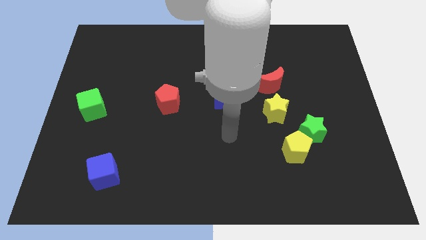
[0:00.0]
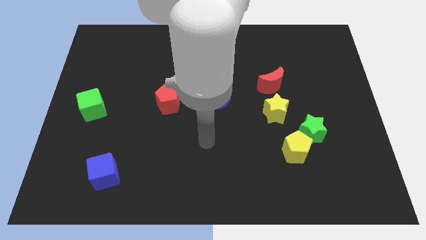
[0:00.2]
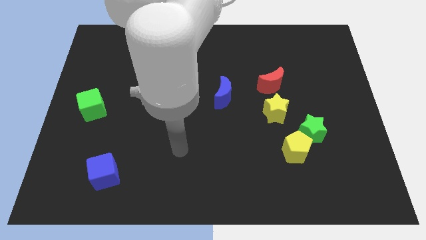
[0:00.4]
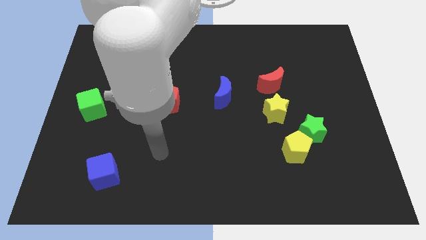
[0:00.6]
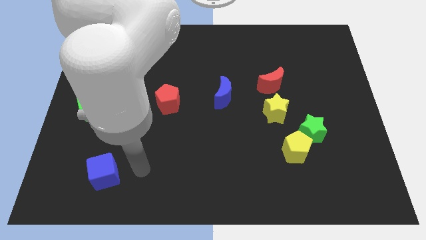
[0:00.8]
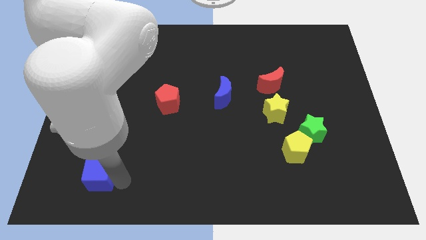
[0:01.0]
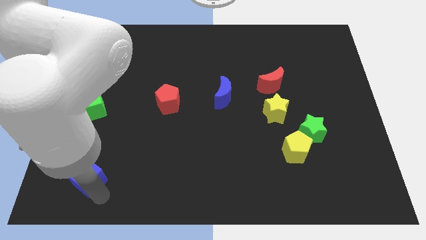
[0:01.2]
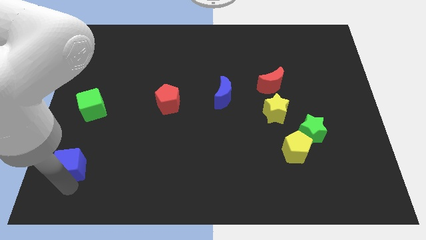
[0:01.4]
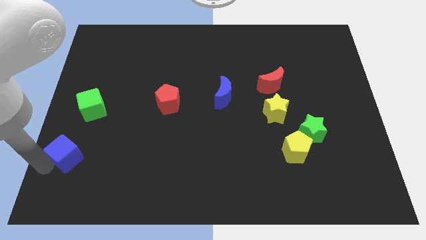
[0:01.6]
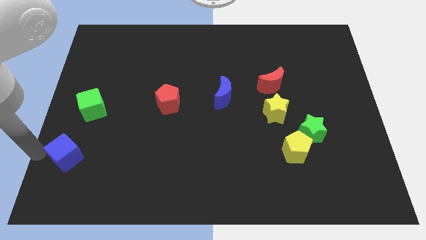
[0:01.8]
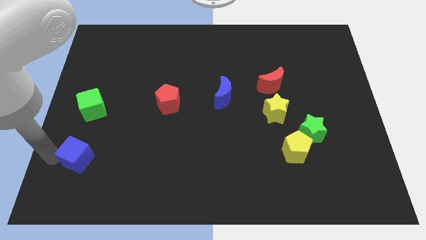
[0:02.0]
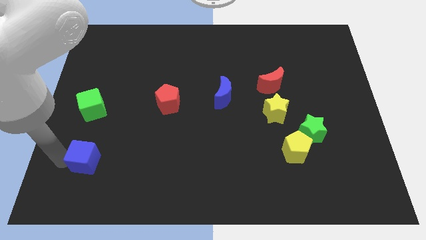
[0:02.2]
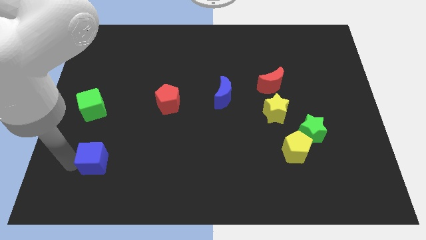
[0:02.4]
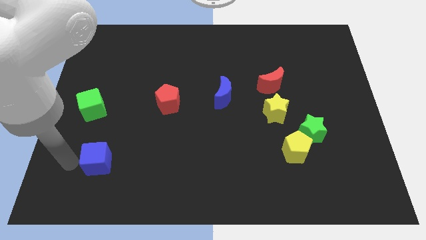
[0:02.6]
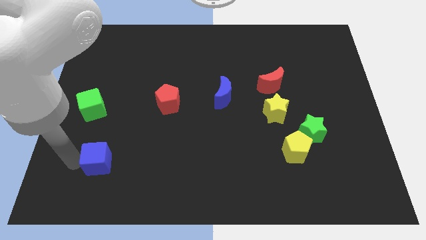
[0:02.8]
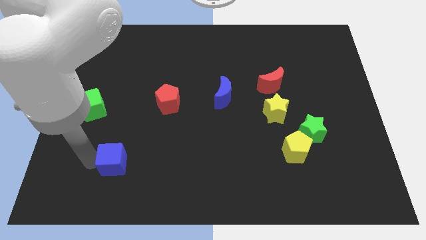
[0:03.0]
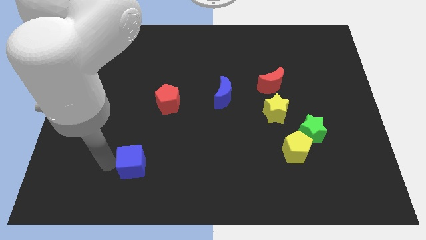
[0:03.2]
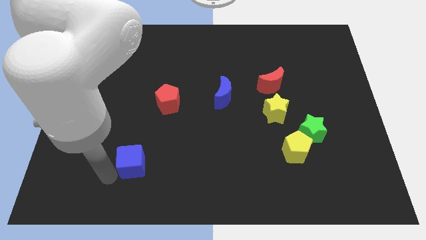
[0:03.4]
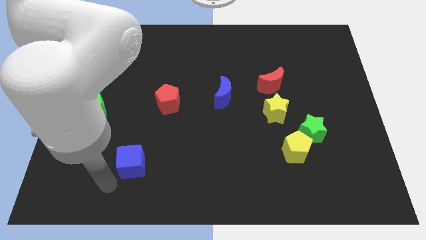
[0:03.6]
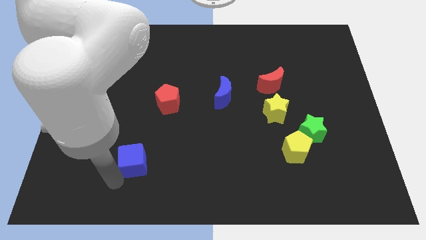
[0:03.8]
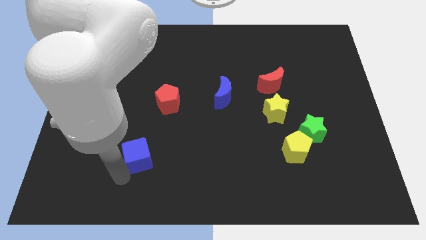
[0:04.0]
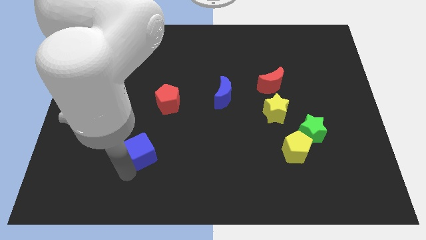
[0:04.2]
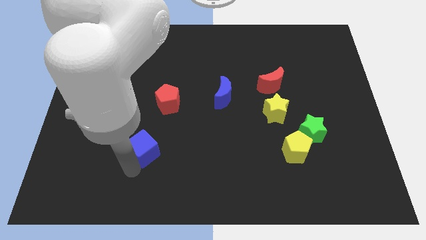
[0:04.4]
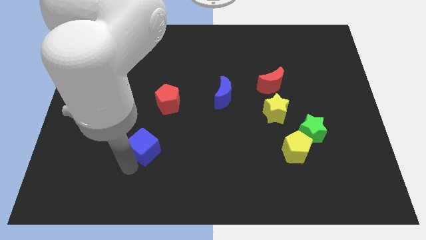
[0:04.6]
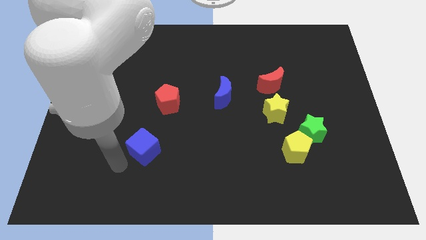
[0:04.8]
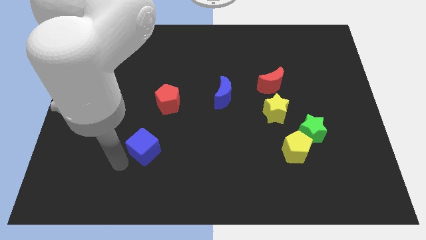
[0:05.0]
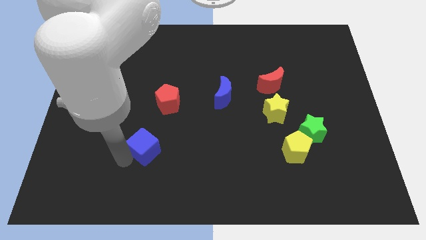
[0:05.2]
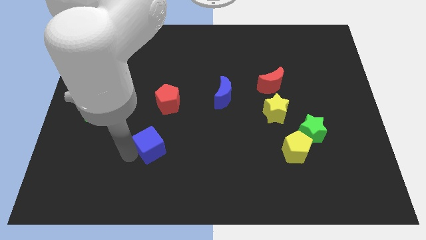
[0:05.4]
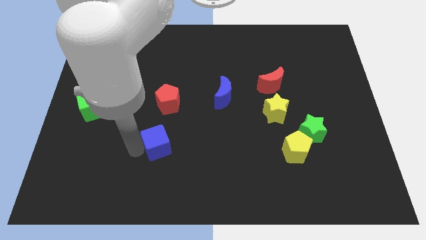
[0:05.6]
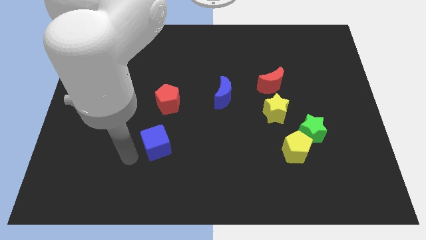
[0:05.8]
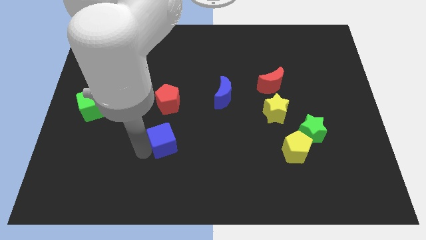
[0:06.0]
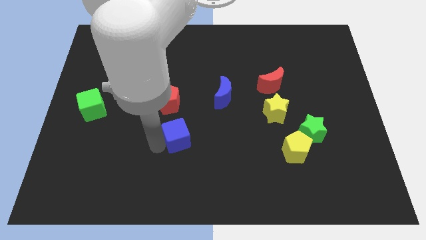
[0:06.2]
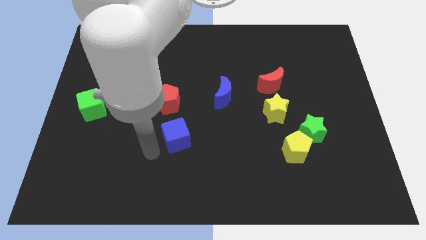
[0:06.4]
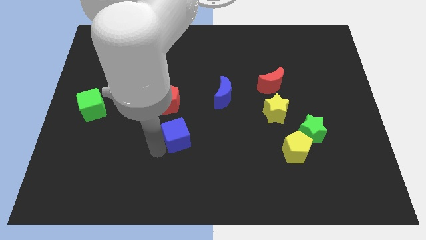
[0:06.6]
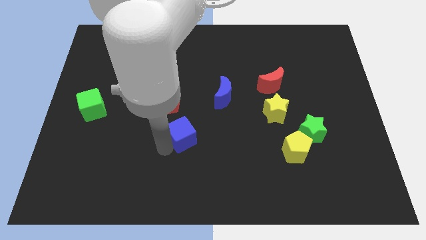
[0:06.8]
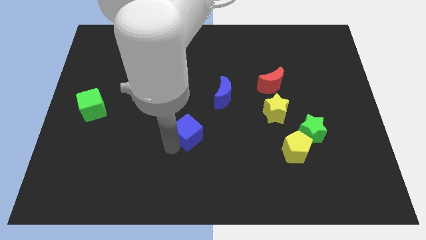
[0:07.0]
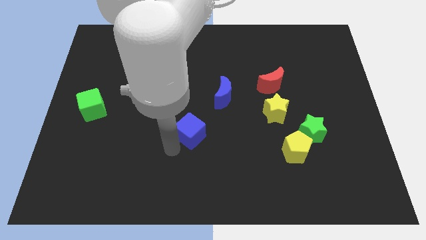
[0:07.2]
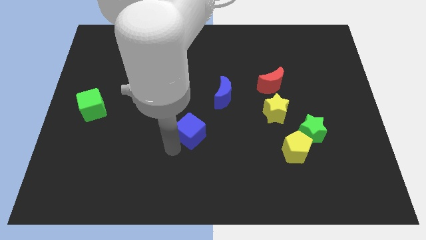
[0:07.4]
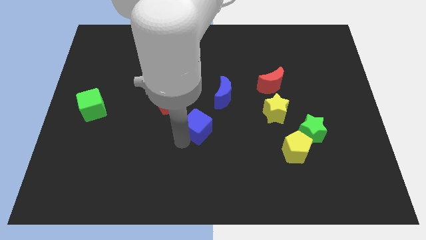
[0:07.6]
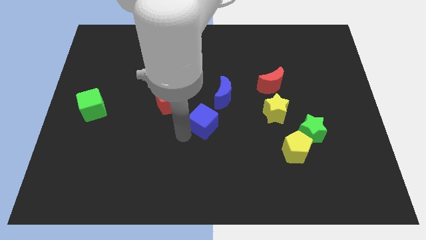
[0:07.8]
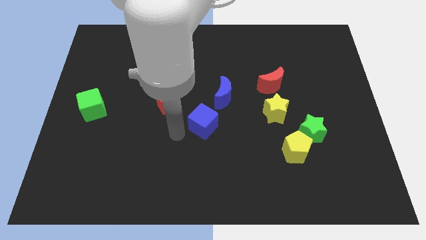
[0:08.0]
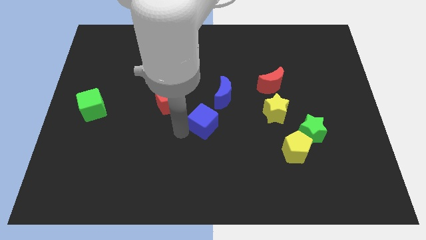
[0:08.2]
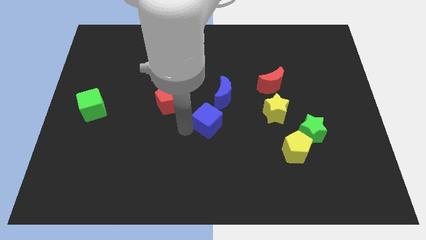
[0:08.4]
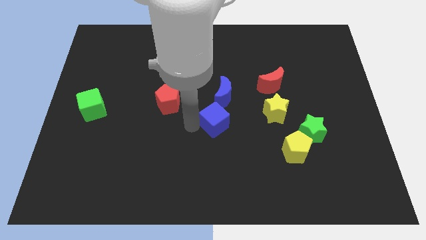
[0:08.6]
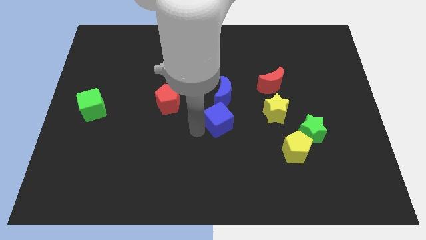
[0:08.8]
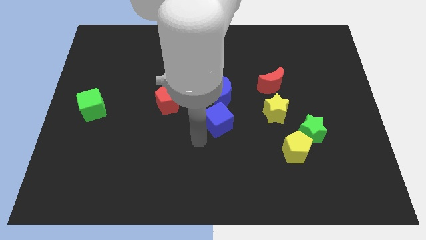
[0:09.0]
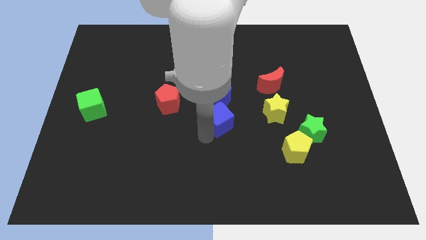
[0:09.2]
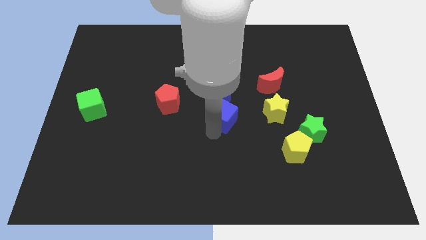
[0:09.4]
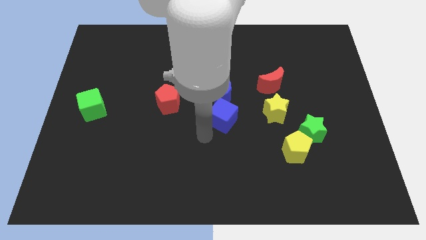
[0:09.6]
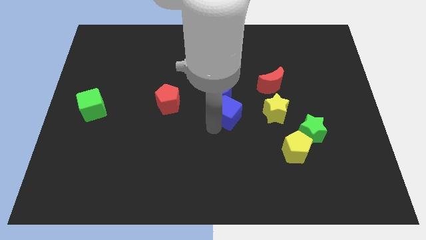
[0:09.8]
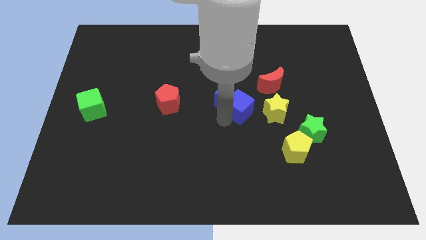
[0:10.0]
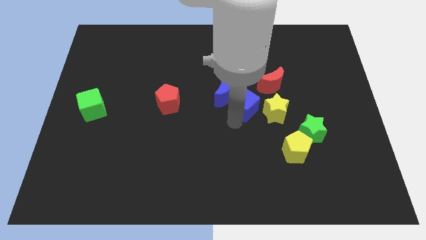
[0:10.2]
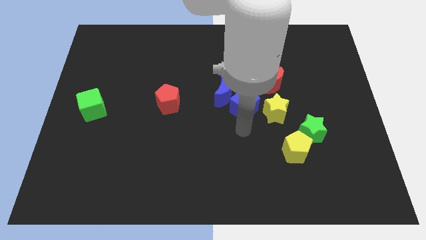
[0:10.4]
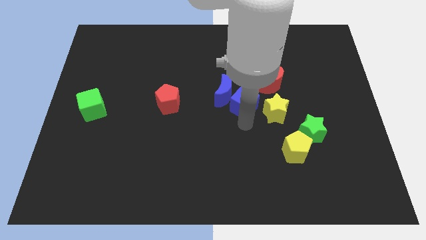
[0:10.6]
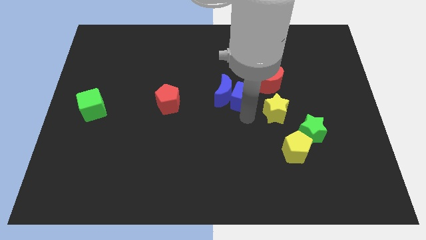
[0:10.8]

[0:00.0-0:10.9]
slide the blue cube to the top right side of the blue moon

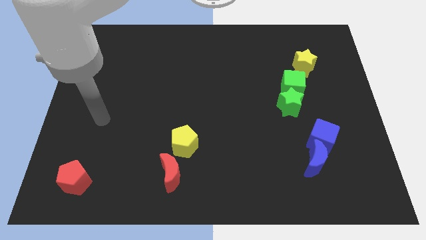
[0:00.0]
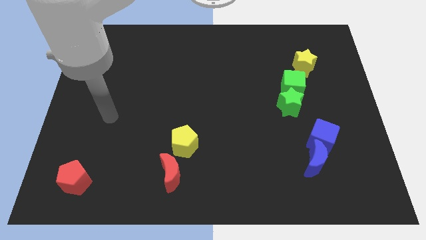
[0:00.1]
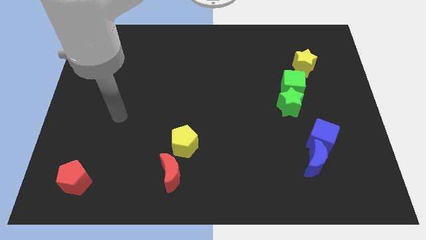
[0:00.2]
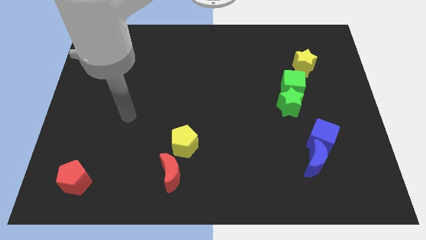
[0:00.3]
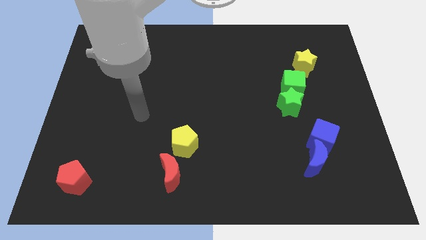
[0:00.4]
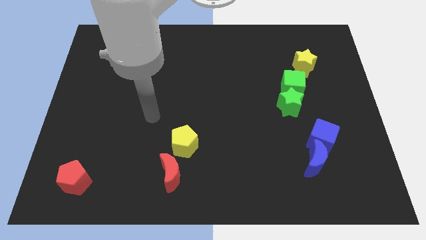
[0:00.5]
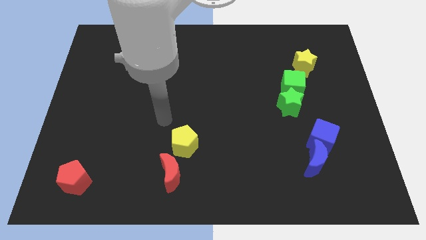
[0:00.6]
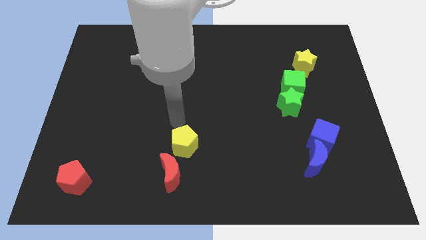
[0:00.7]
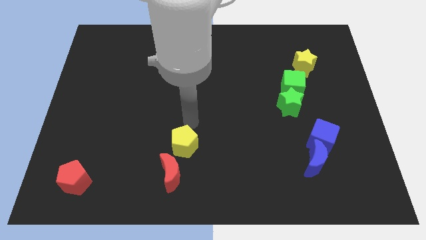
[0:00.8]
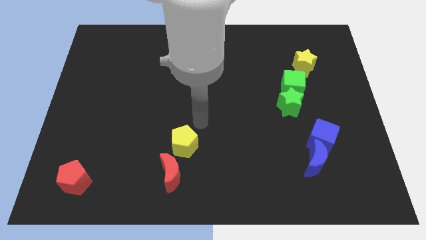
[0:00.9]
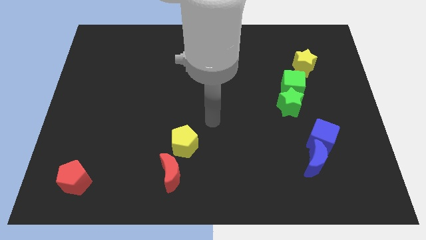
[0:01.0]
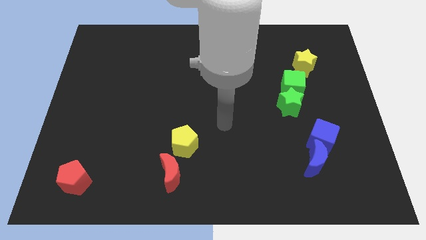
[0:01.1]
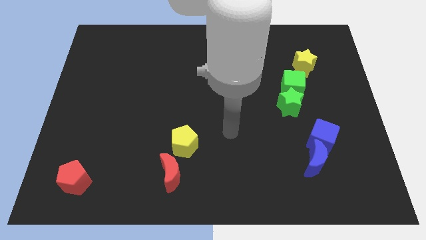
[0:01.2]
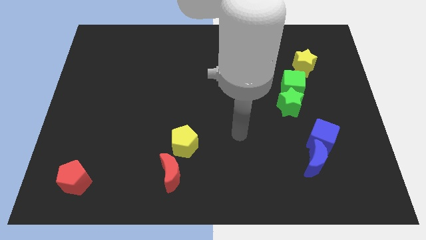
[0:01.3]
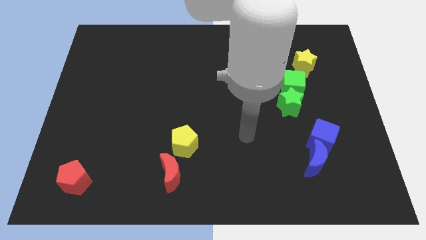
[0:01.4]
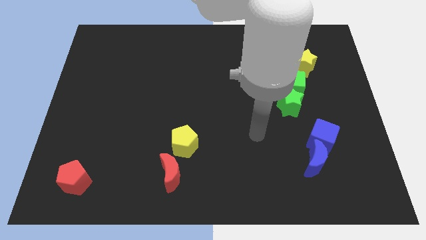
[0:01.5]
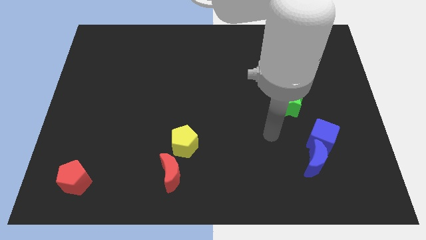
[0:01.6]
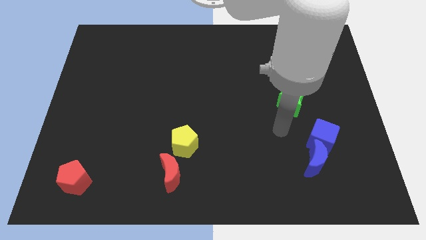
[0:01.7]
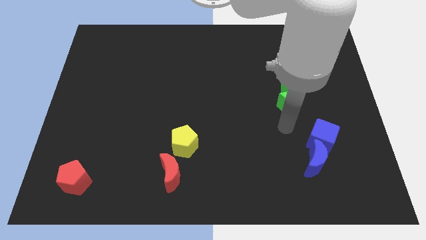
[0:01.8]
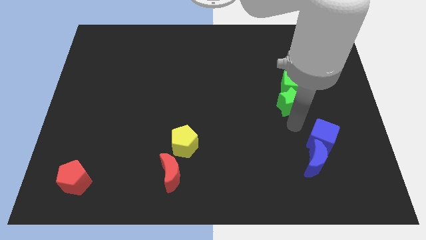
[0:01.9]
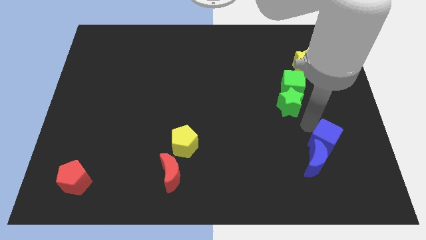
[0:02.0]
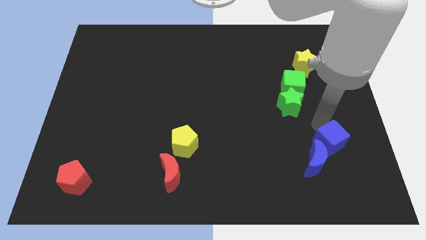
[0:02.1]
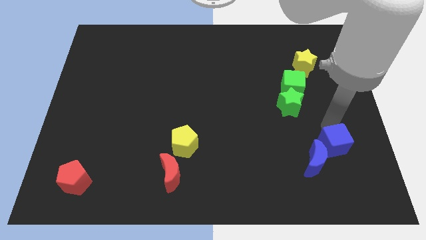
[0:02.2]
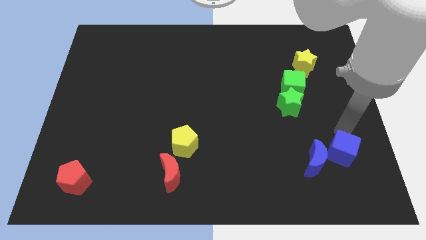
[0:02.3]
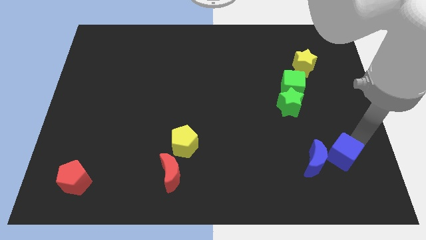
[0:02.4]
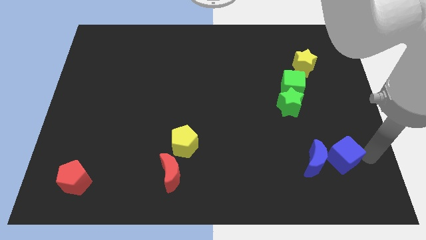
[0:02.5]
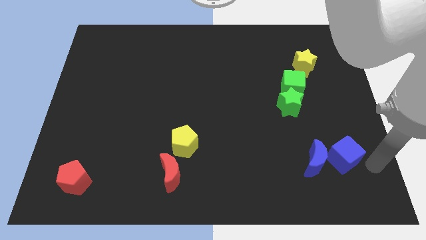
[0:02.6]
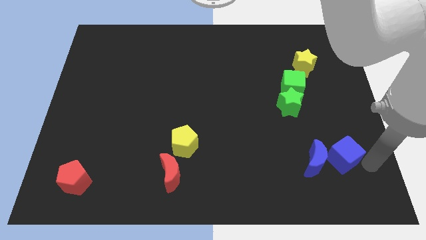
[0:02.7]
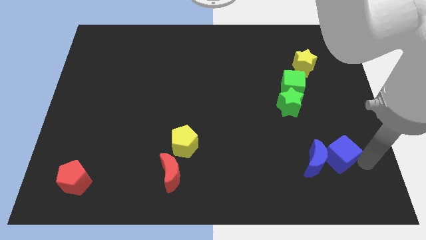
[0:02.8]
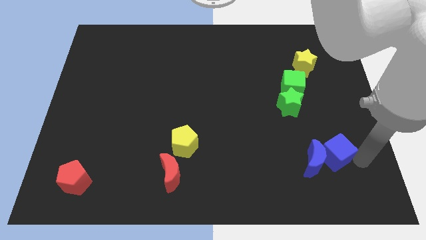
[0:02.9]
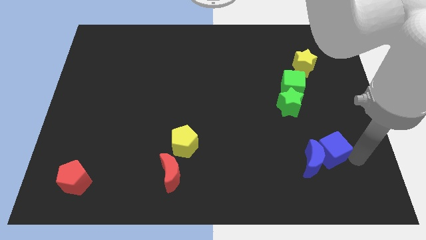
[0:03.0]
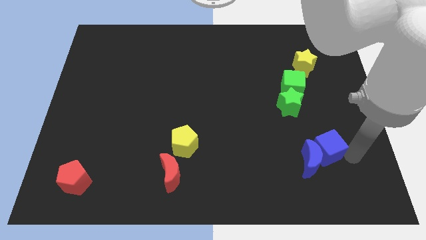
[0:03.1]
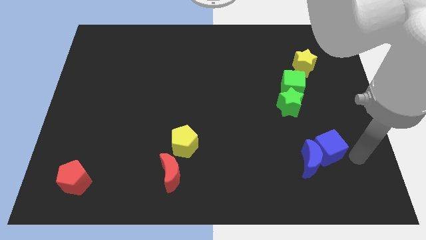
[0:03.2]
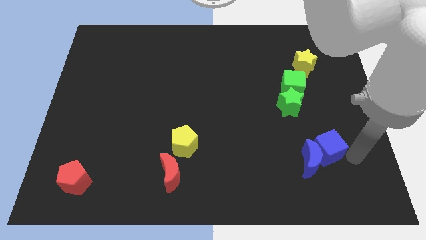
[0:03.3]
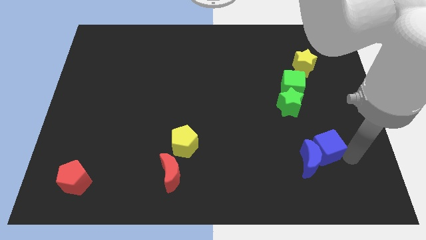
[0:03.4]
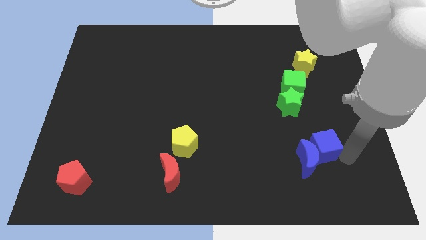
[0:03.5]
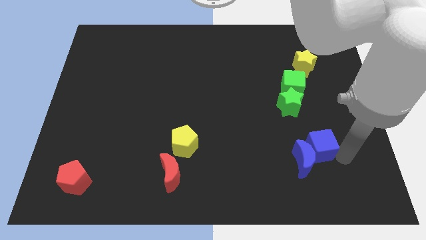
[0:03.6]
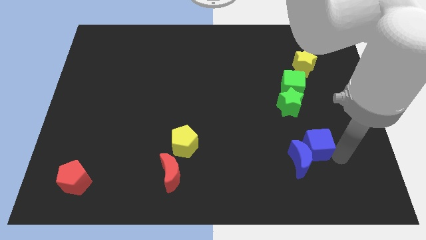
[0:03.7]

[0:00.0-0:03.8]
move the blue cube below the green star
